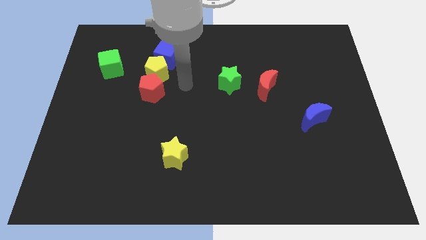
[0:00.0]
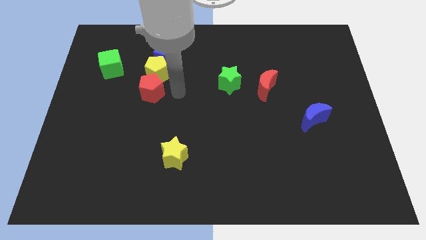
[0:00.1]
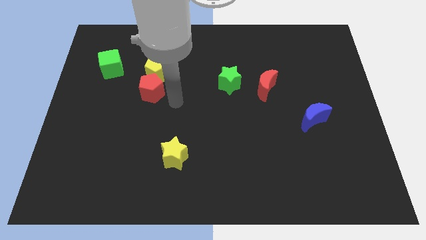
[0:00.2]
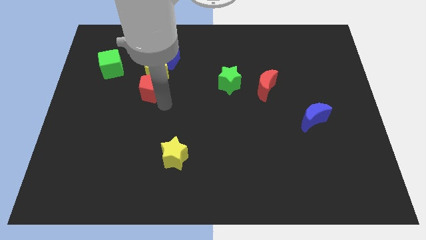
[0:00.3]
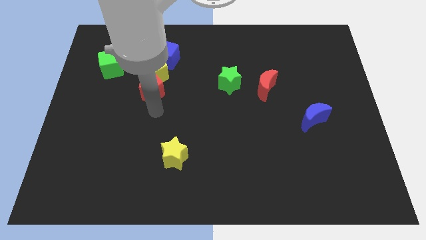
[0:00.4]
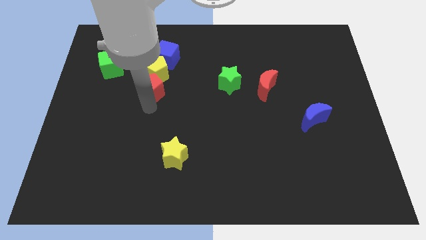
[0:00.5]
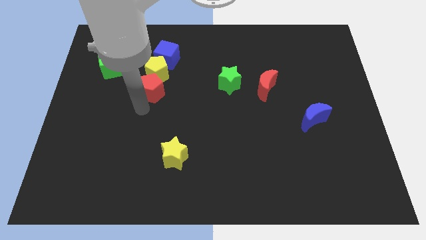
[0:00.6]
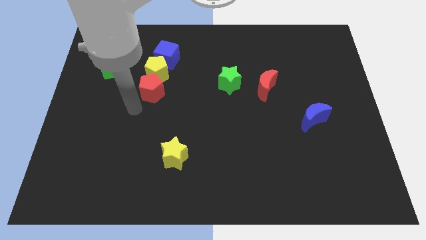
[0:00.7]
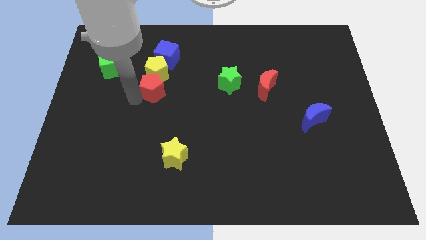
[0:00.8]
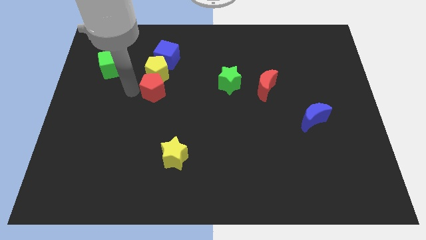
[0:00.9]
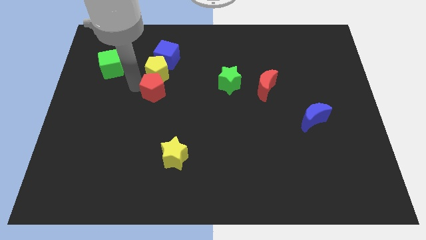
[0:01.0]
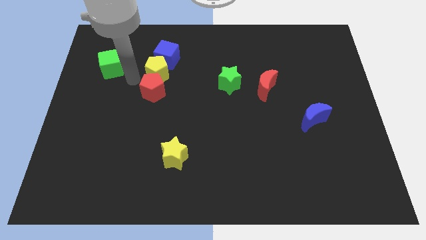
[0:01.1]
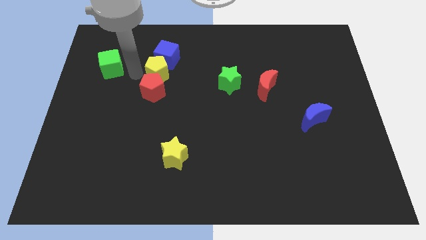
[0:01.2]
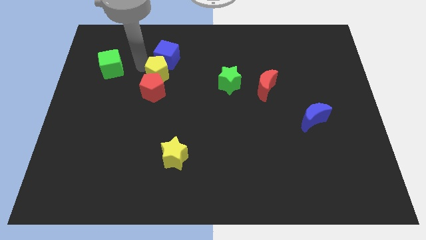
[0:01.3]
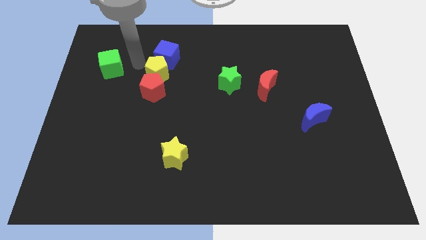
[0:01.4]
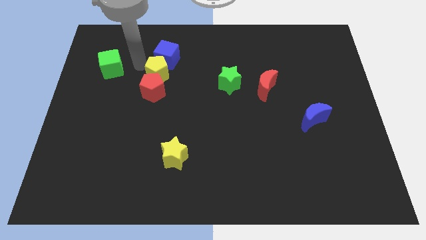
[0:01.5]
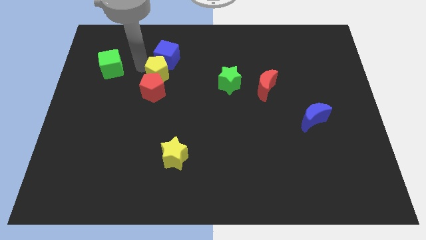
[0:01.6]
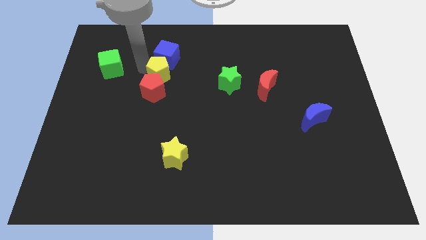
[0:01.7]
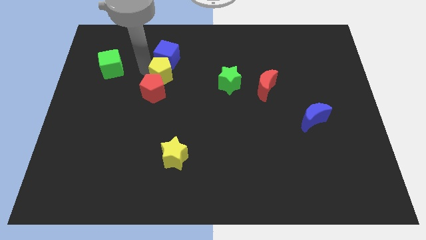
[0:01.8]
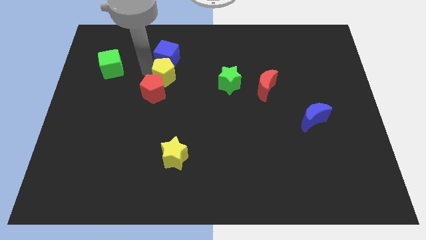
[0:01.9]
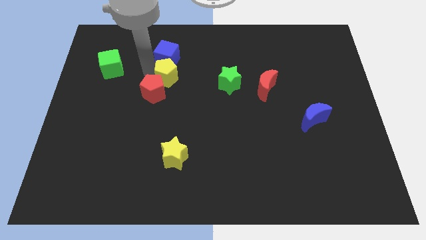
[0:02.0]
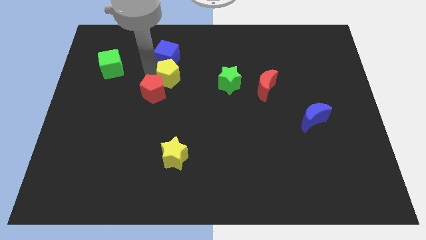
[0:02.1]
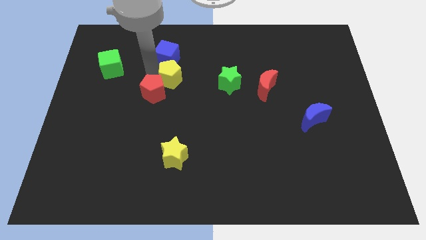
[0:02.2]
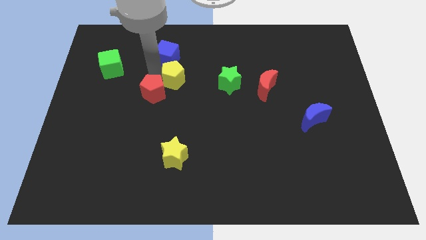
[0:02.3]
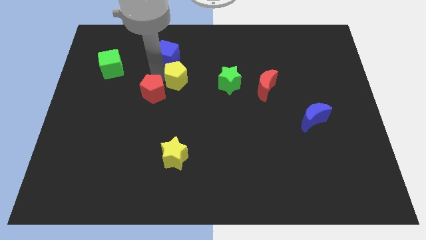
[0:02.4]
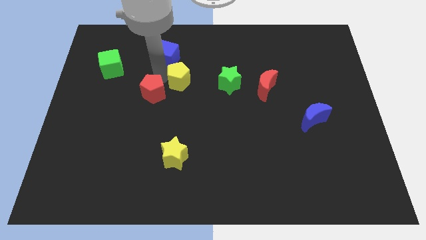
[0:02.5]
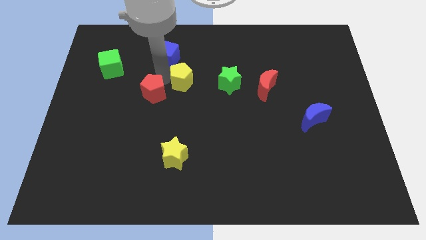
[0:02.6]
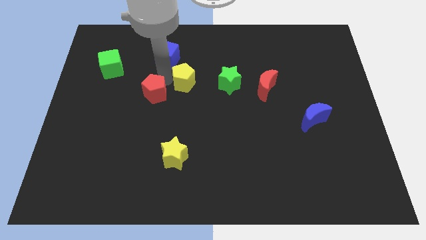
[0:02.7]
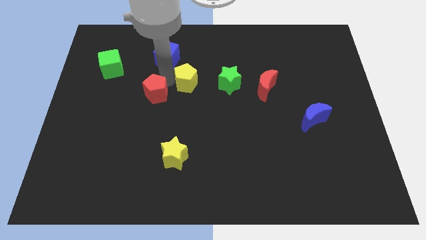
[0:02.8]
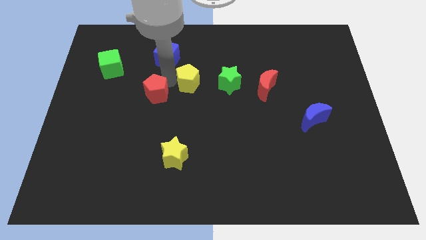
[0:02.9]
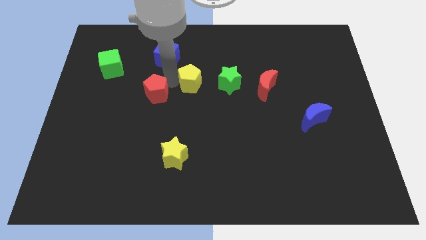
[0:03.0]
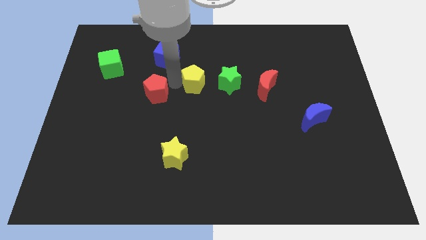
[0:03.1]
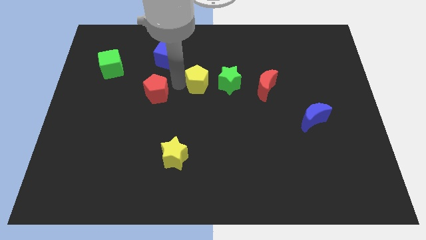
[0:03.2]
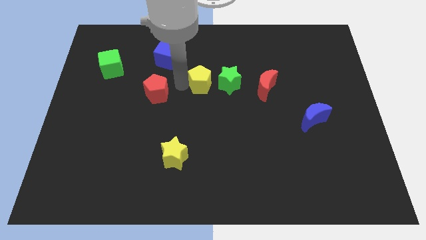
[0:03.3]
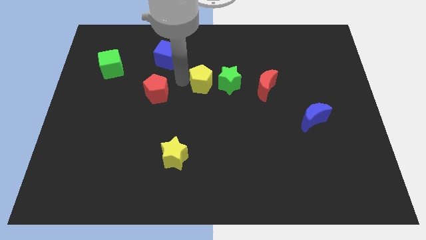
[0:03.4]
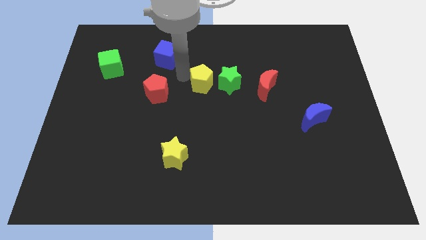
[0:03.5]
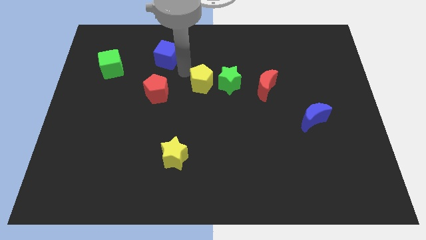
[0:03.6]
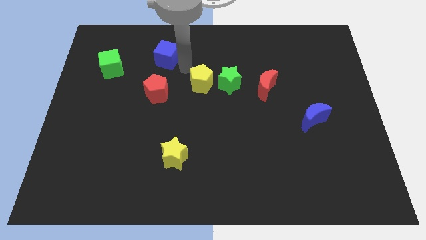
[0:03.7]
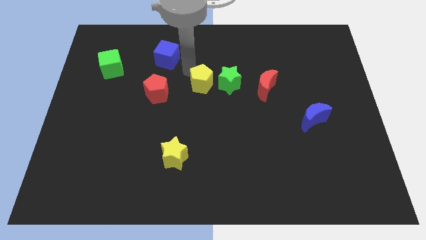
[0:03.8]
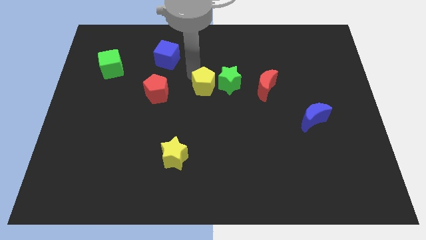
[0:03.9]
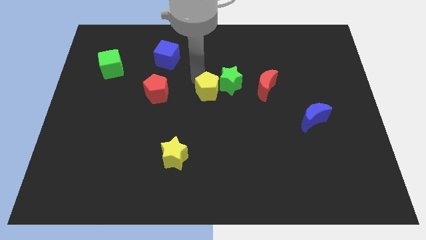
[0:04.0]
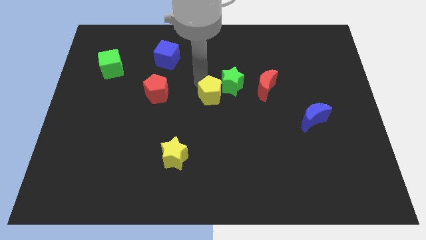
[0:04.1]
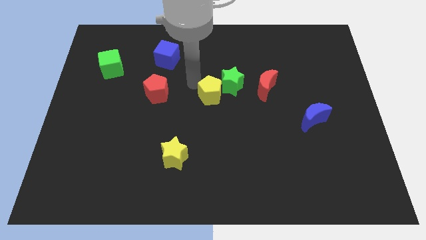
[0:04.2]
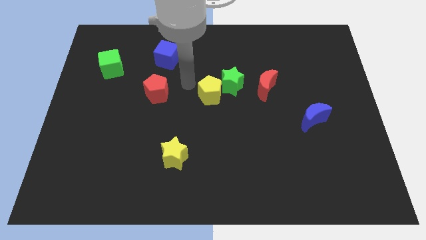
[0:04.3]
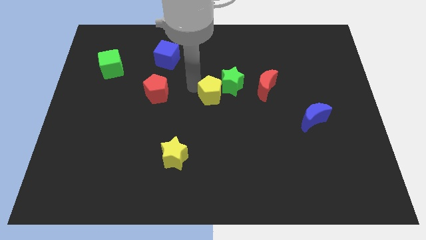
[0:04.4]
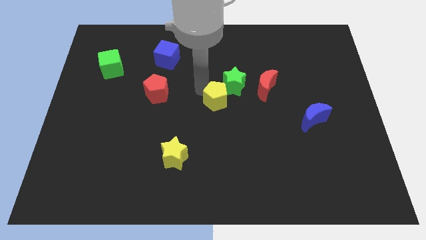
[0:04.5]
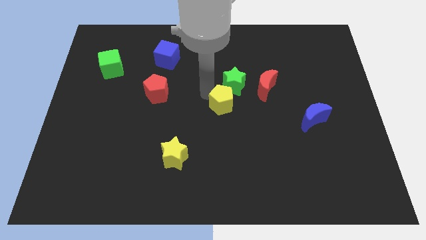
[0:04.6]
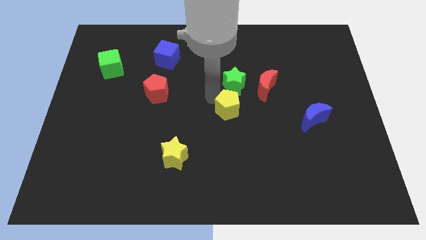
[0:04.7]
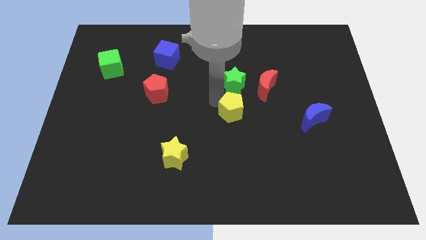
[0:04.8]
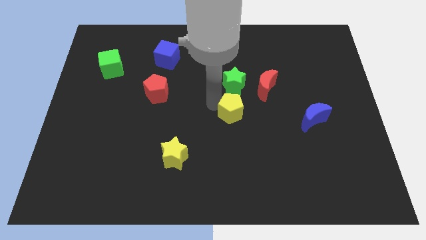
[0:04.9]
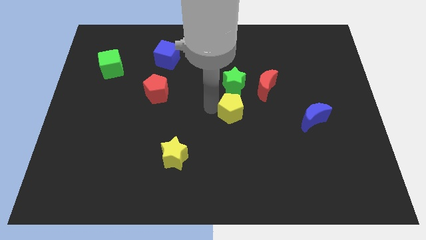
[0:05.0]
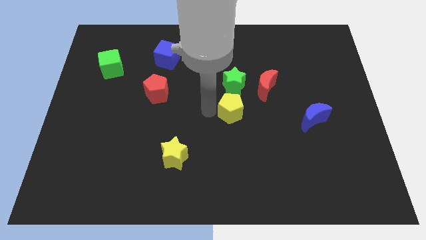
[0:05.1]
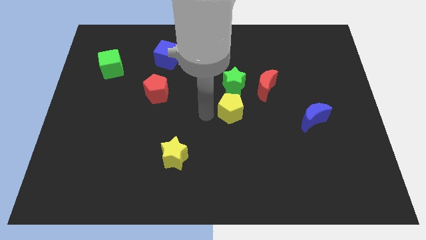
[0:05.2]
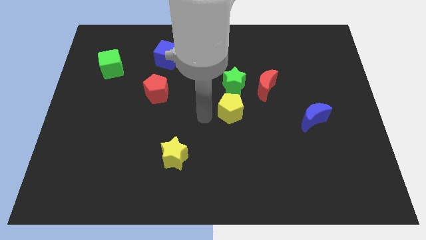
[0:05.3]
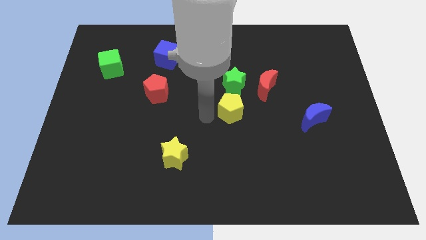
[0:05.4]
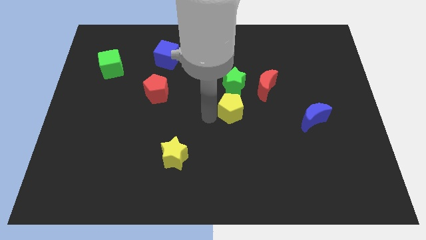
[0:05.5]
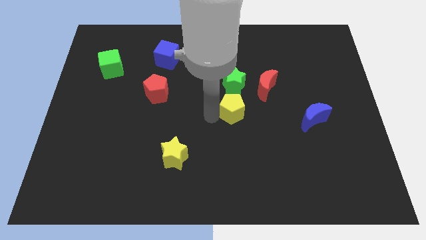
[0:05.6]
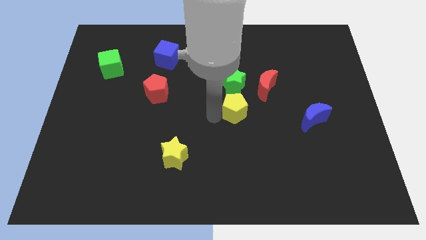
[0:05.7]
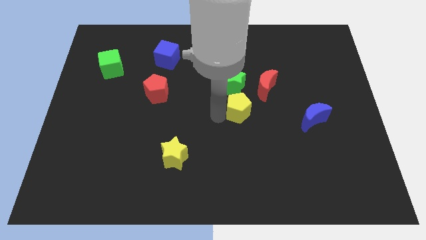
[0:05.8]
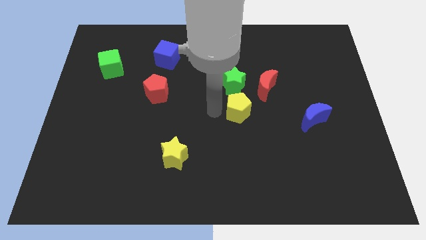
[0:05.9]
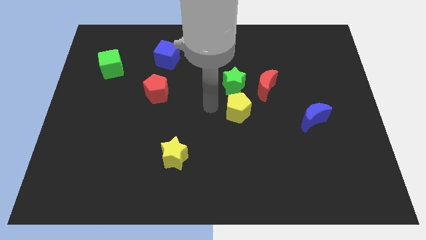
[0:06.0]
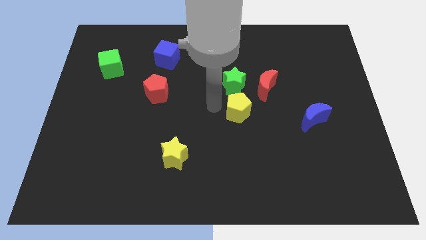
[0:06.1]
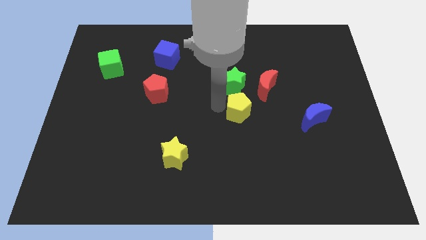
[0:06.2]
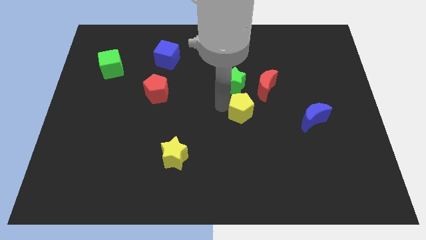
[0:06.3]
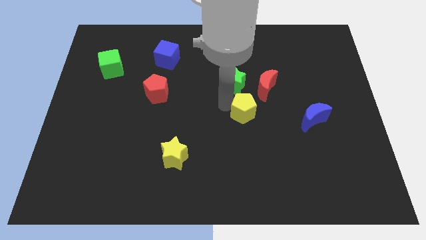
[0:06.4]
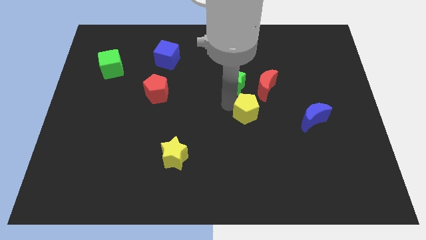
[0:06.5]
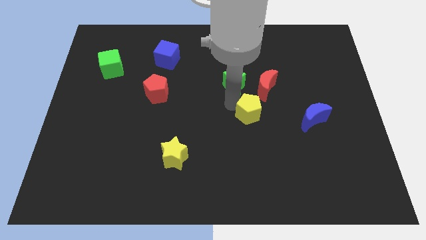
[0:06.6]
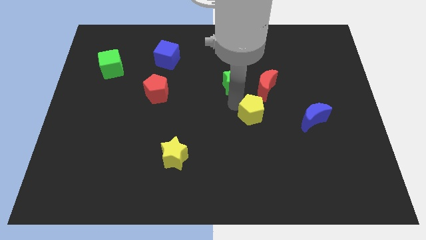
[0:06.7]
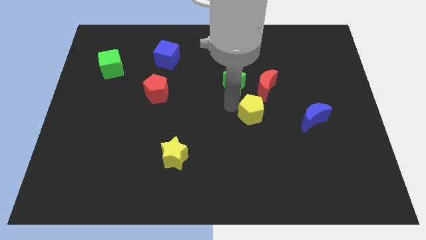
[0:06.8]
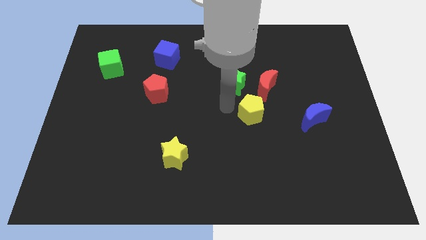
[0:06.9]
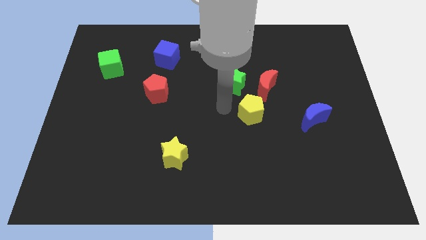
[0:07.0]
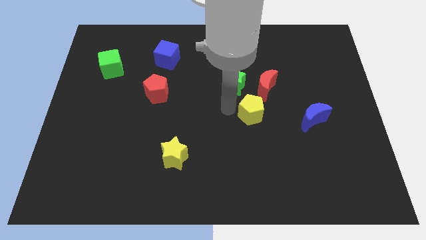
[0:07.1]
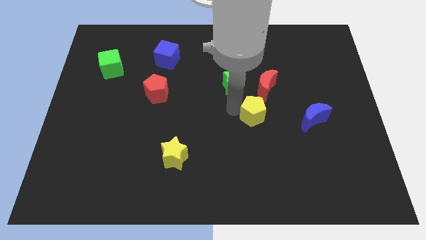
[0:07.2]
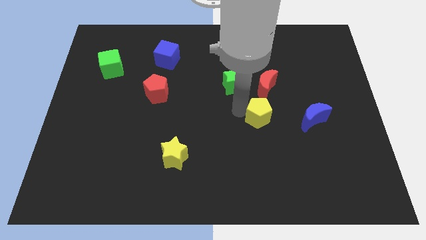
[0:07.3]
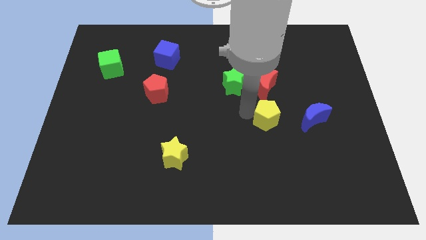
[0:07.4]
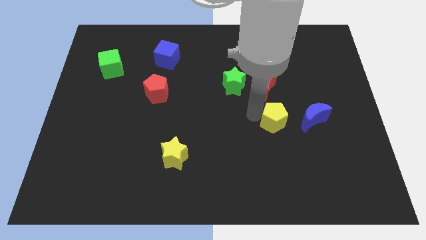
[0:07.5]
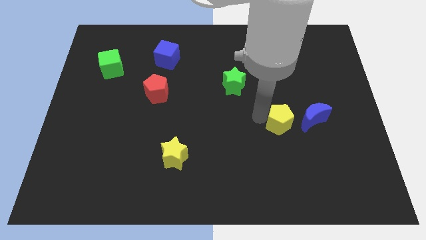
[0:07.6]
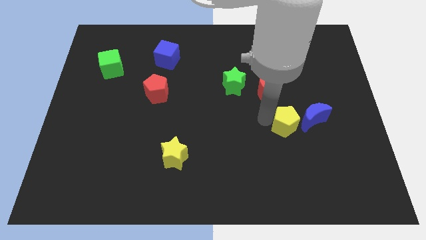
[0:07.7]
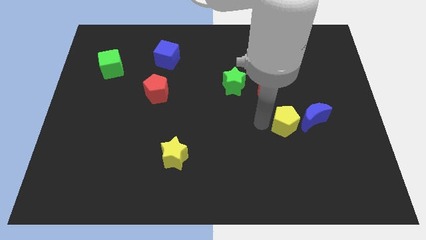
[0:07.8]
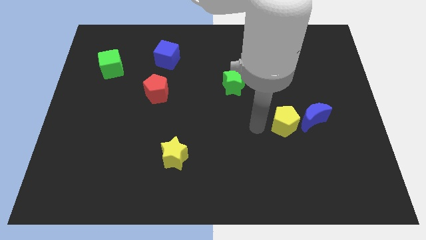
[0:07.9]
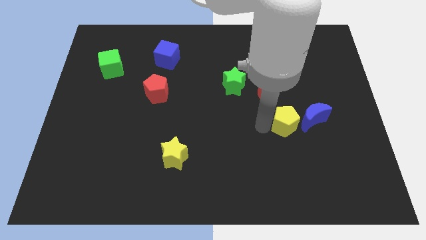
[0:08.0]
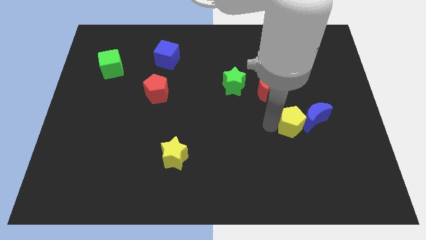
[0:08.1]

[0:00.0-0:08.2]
slide the yellow pentagon to the blue moon
